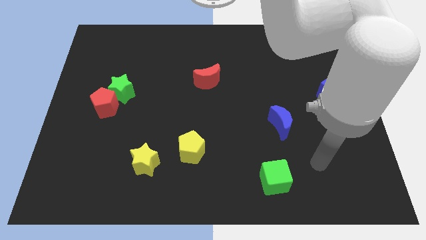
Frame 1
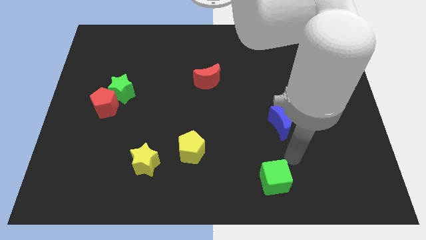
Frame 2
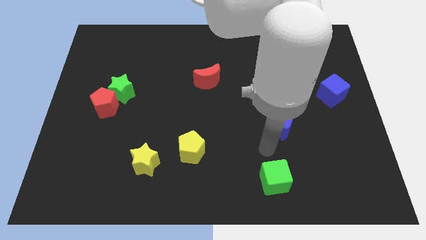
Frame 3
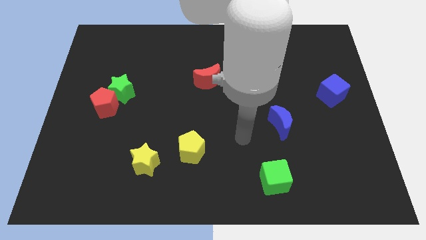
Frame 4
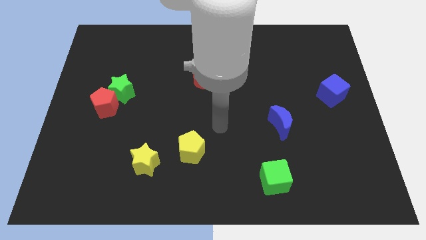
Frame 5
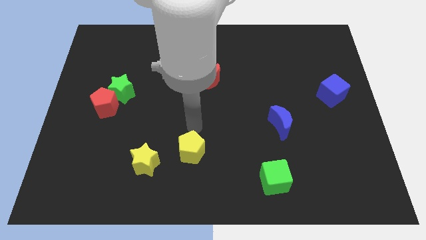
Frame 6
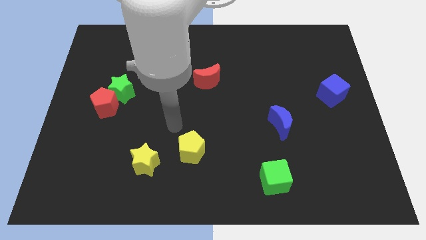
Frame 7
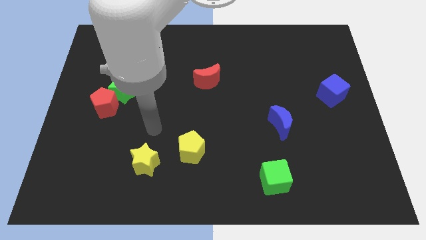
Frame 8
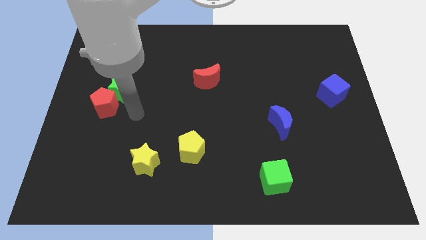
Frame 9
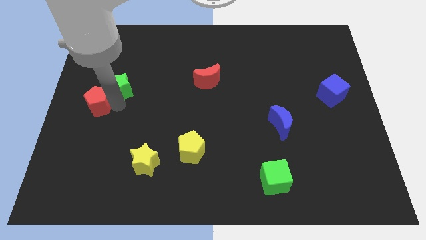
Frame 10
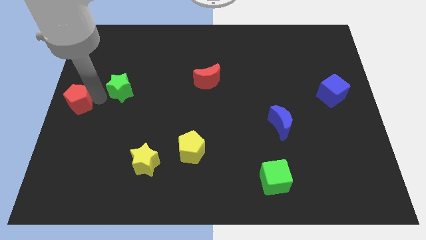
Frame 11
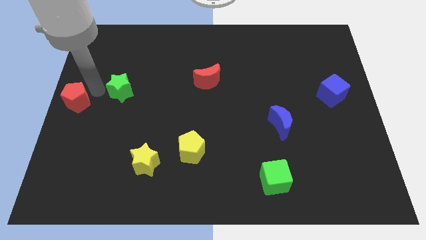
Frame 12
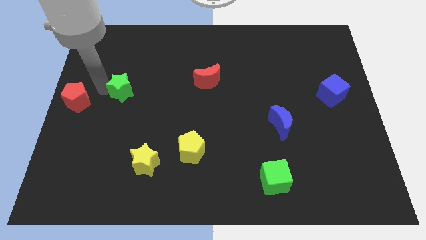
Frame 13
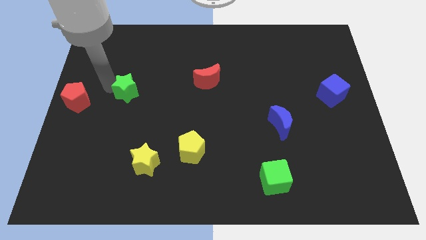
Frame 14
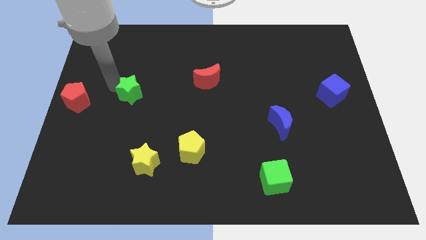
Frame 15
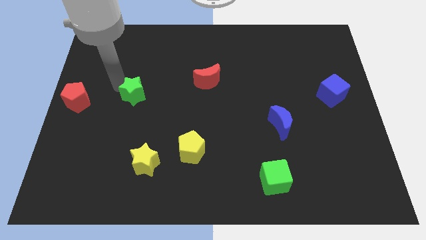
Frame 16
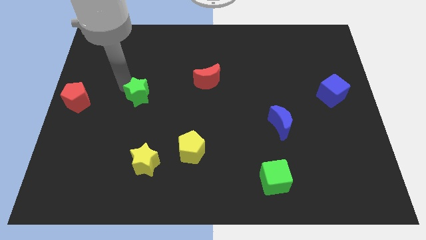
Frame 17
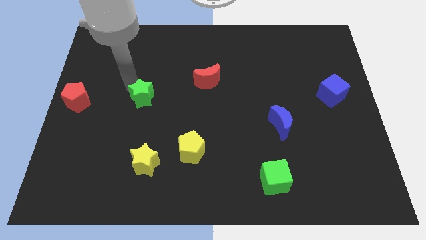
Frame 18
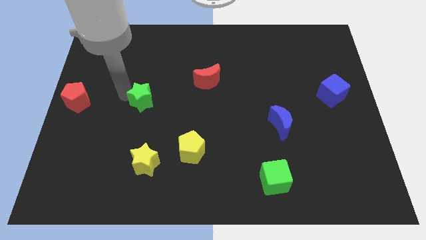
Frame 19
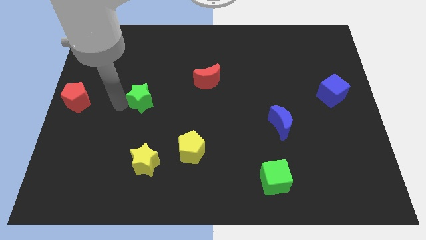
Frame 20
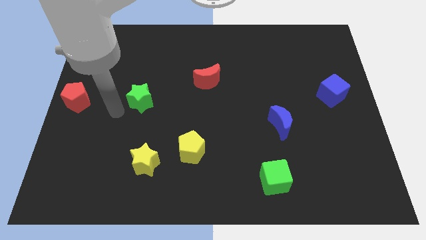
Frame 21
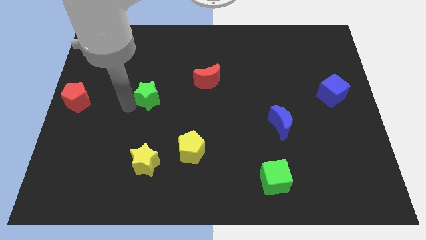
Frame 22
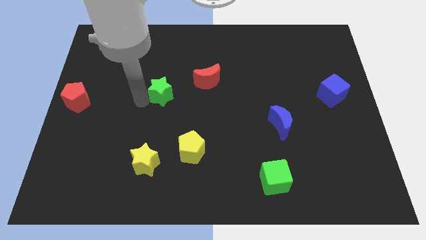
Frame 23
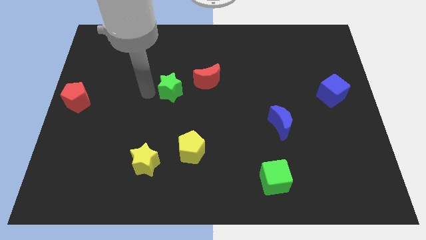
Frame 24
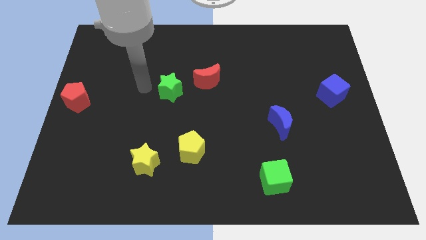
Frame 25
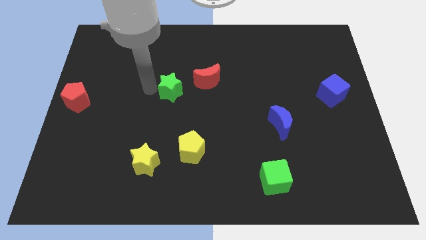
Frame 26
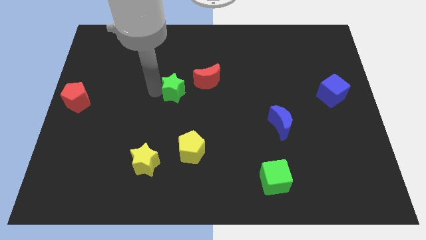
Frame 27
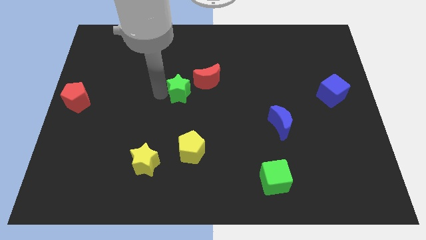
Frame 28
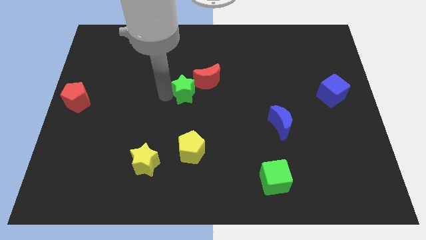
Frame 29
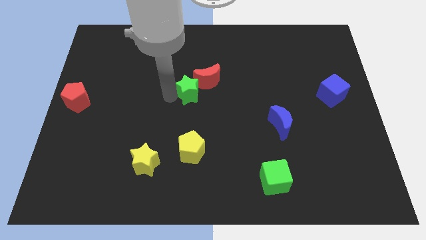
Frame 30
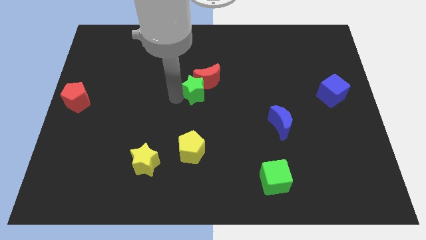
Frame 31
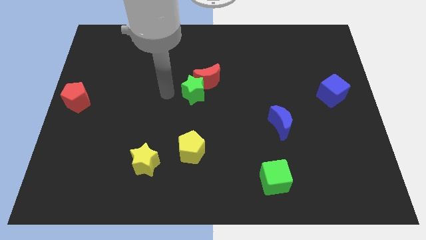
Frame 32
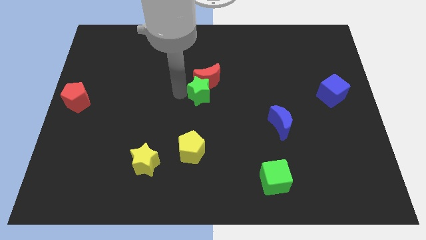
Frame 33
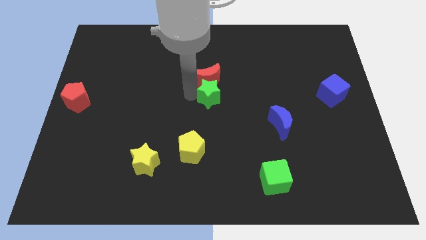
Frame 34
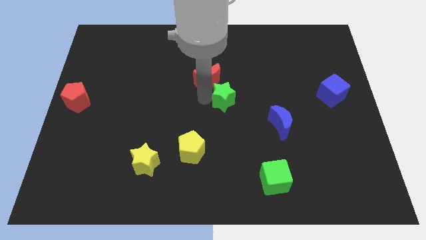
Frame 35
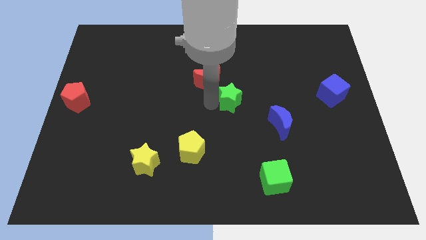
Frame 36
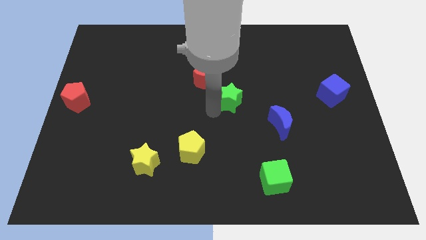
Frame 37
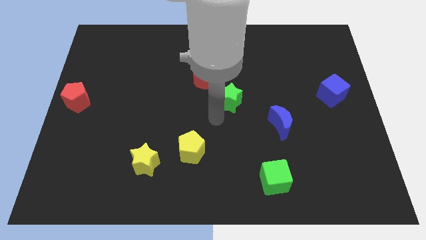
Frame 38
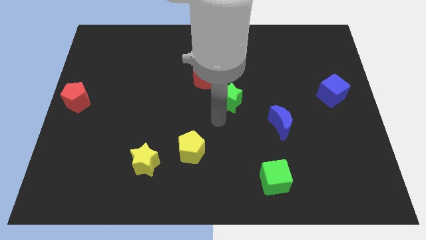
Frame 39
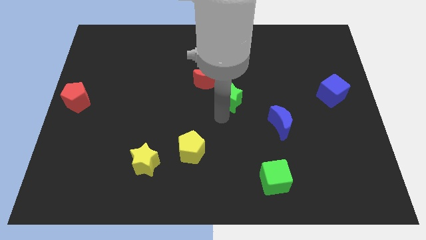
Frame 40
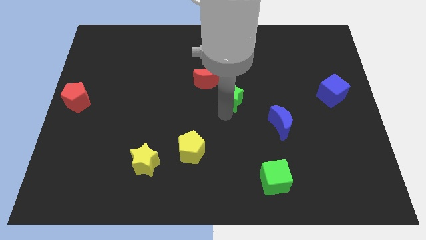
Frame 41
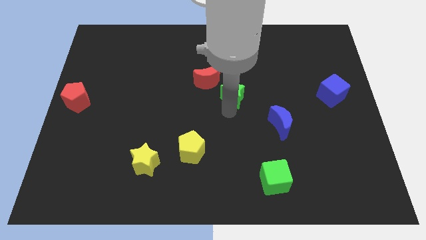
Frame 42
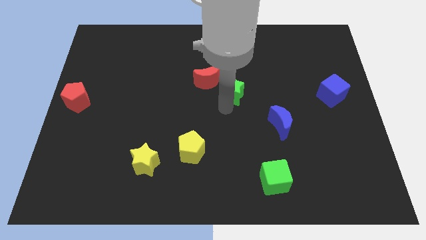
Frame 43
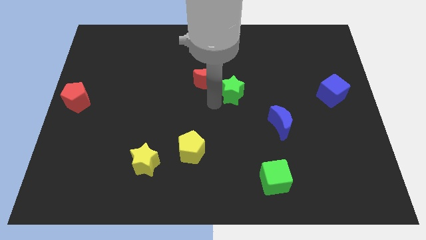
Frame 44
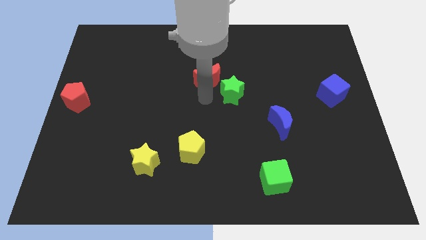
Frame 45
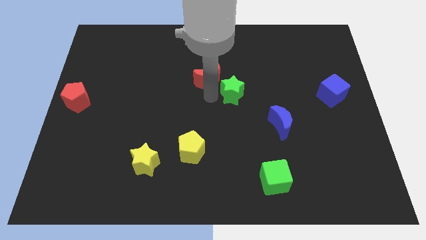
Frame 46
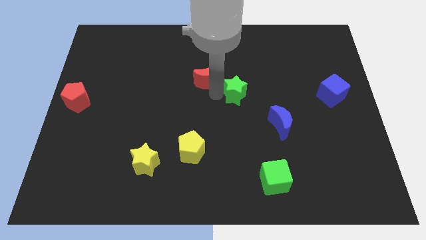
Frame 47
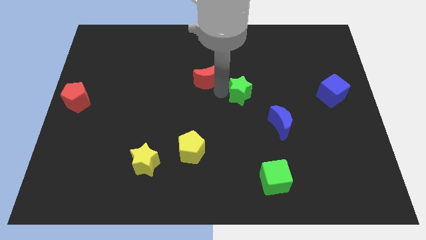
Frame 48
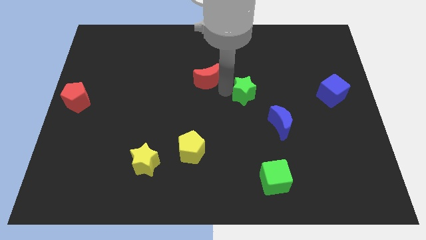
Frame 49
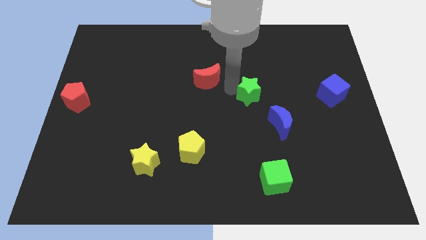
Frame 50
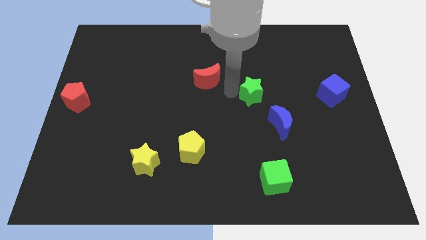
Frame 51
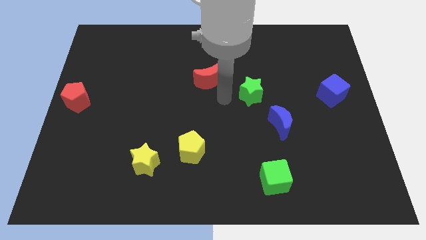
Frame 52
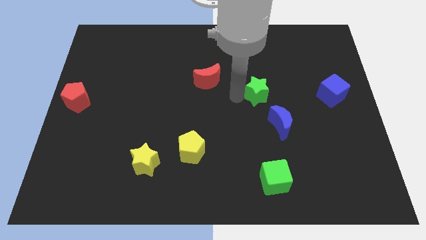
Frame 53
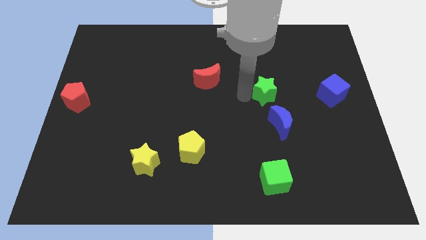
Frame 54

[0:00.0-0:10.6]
move the green star above the blue moon

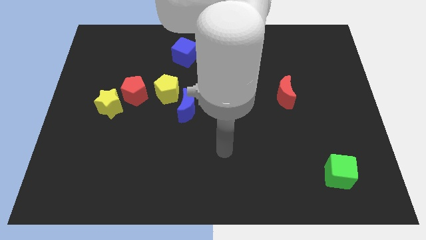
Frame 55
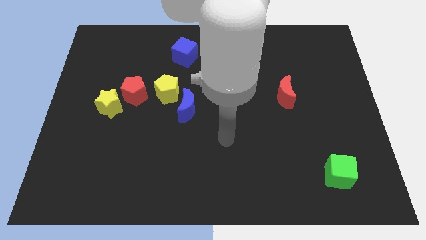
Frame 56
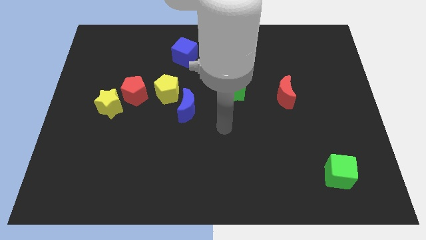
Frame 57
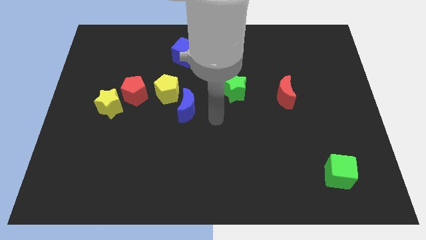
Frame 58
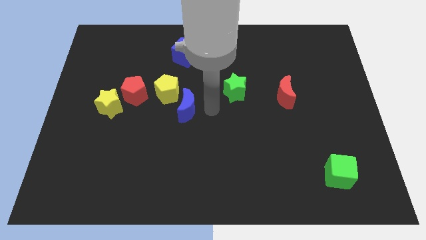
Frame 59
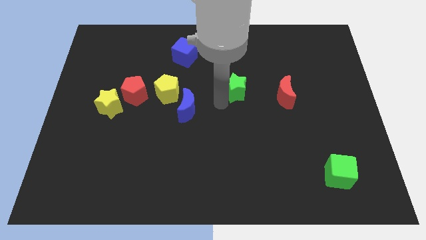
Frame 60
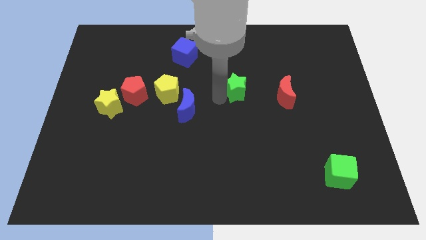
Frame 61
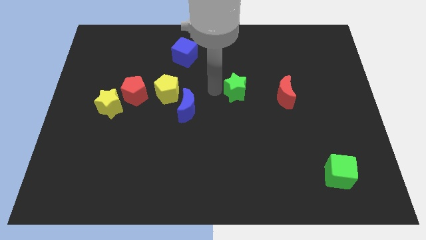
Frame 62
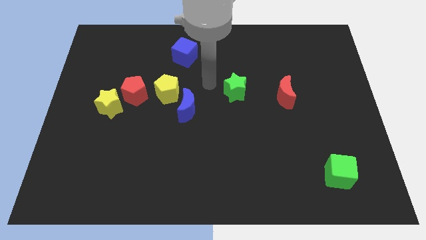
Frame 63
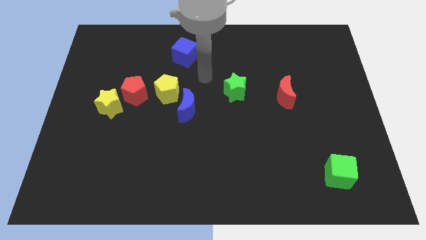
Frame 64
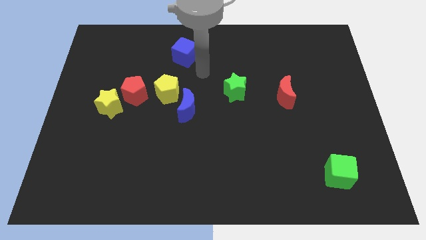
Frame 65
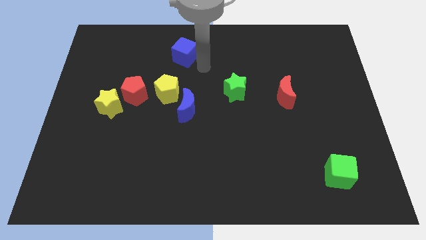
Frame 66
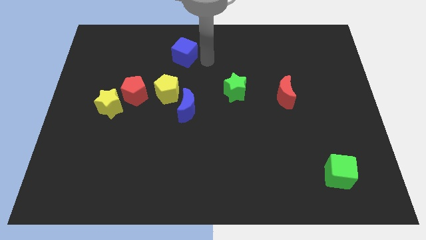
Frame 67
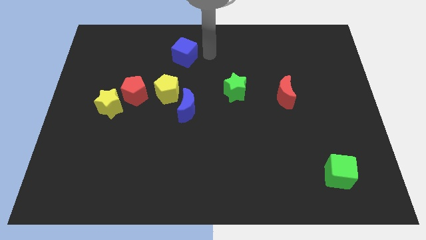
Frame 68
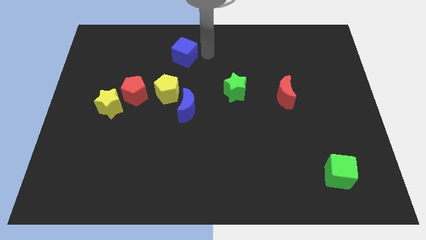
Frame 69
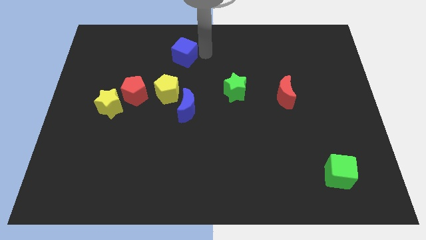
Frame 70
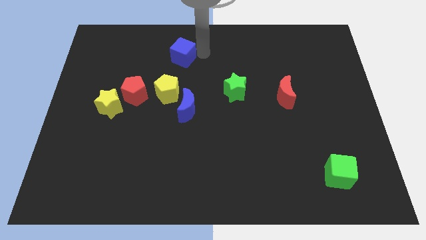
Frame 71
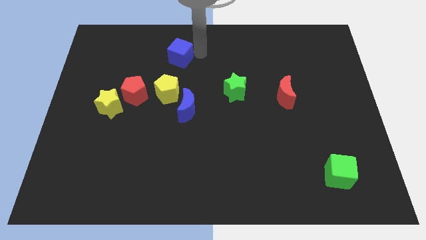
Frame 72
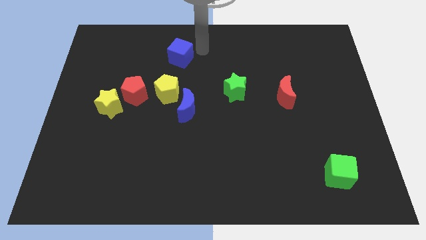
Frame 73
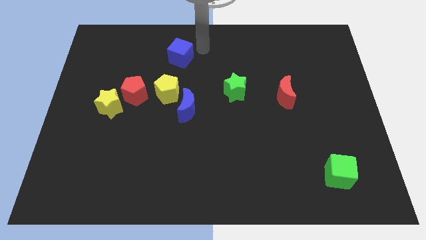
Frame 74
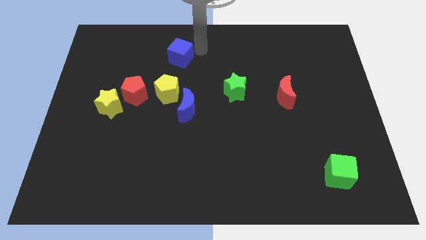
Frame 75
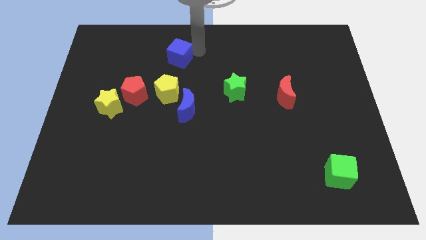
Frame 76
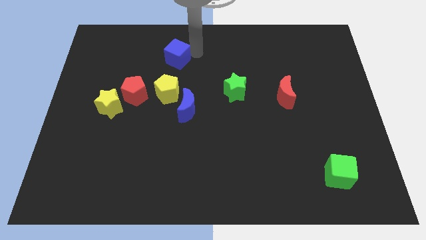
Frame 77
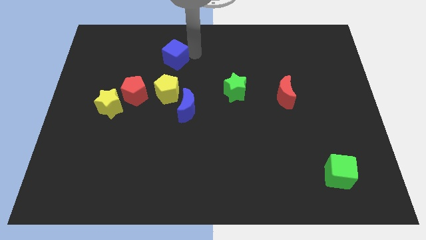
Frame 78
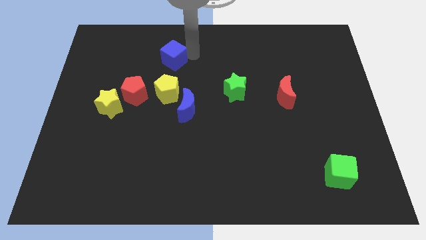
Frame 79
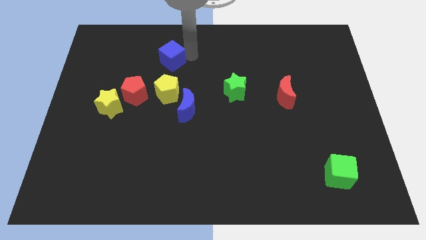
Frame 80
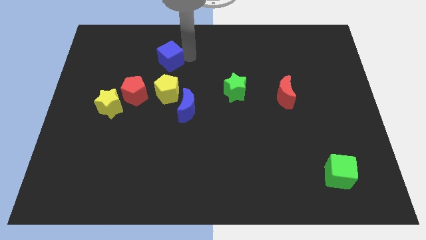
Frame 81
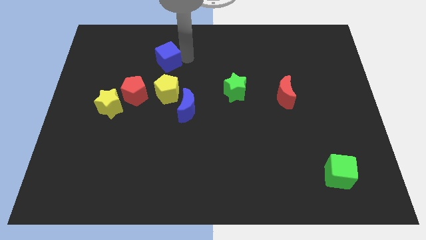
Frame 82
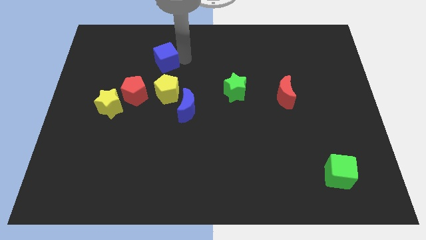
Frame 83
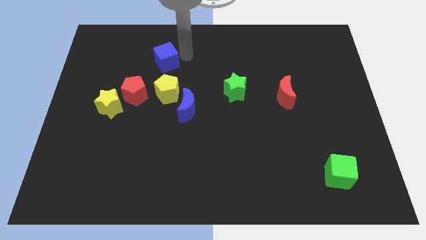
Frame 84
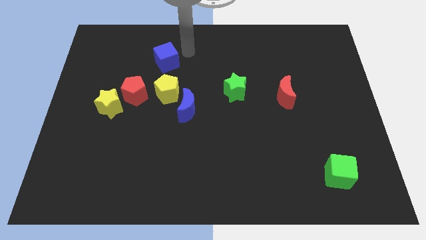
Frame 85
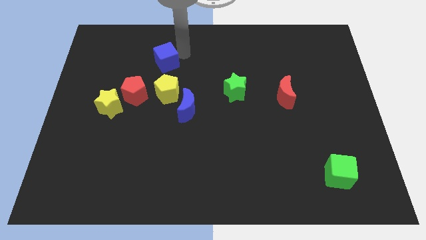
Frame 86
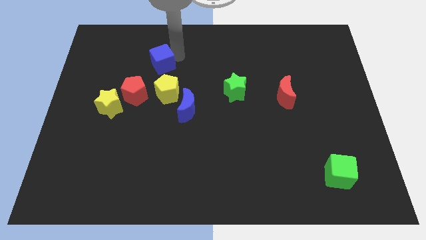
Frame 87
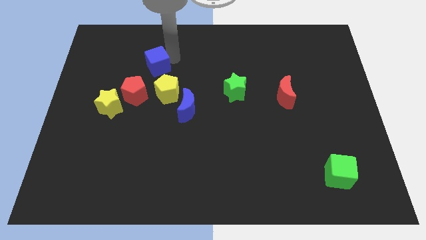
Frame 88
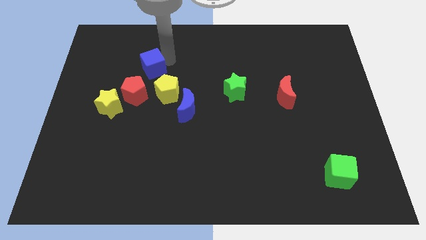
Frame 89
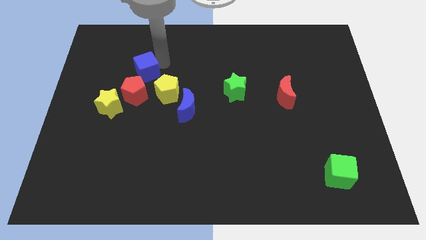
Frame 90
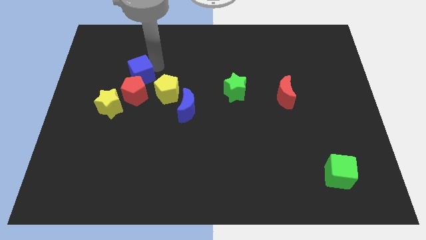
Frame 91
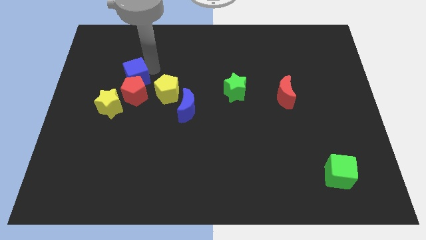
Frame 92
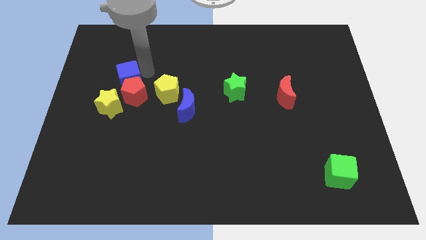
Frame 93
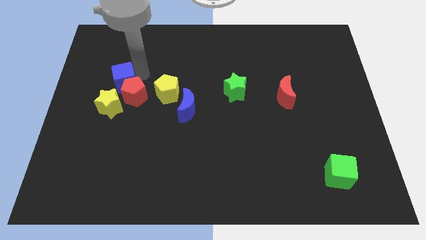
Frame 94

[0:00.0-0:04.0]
move the blue cube just left of the red pentagon
